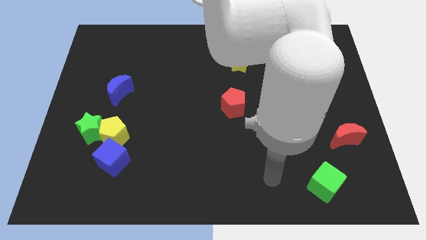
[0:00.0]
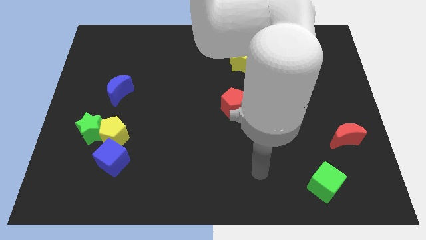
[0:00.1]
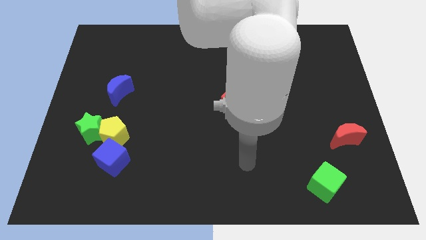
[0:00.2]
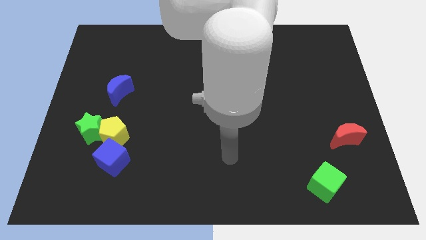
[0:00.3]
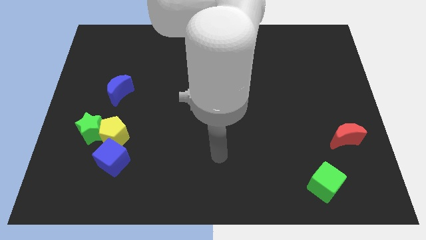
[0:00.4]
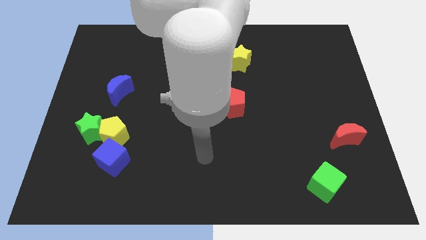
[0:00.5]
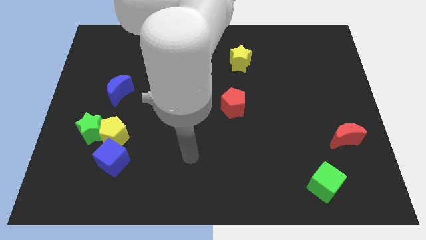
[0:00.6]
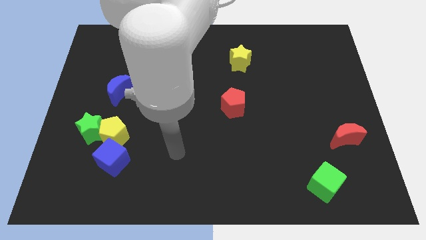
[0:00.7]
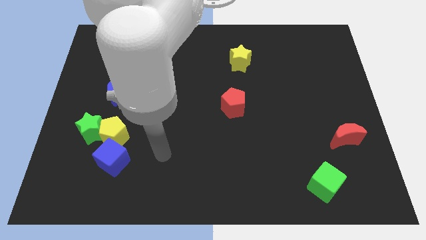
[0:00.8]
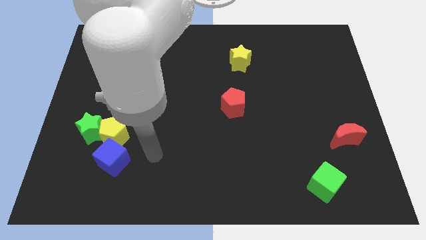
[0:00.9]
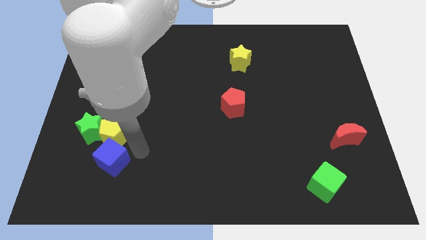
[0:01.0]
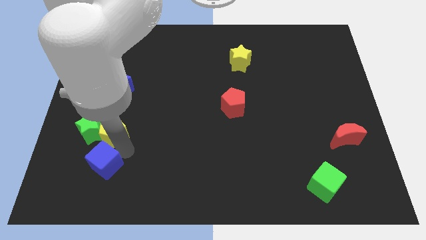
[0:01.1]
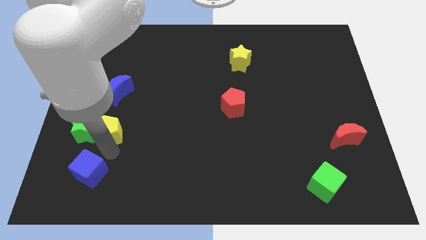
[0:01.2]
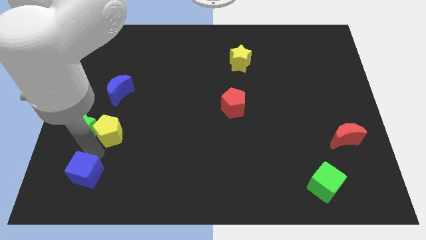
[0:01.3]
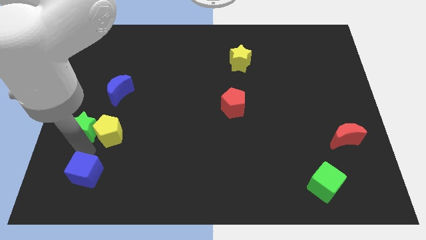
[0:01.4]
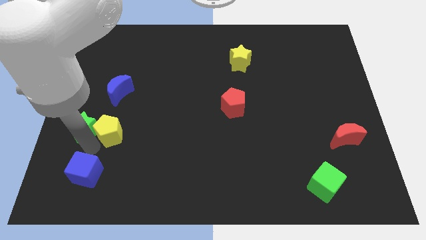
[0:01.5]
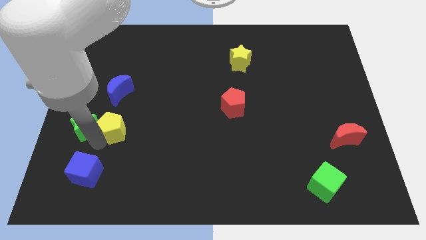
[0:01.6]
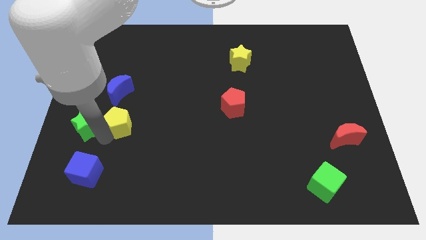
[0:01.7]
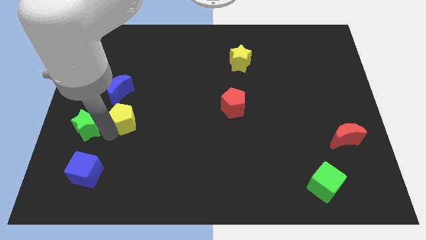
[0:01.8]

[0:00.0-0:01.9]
separate the yellow pentagon from the green star and blue cube

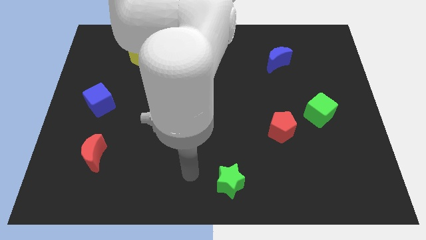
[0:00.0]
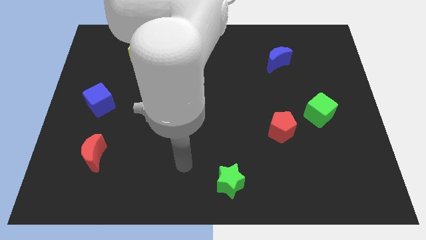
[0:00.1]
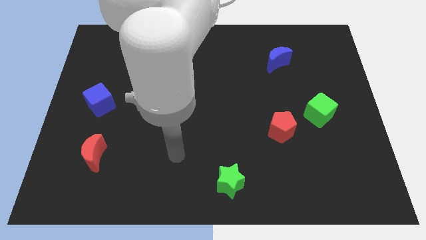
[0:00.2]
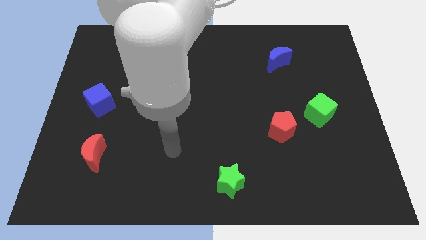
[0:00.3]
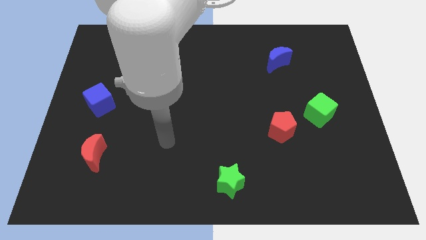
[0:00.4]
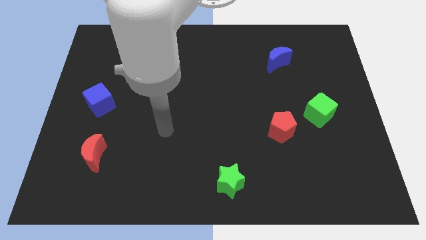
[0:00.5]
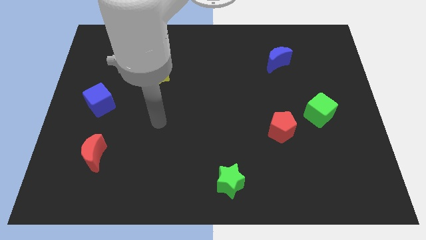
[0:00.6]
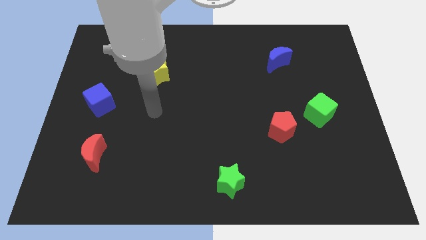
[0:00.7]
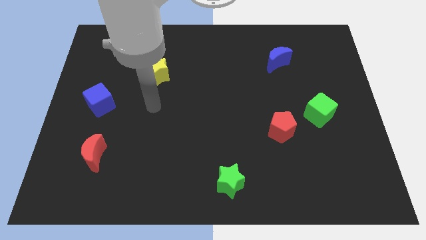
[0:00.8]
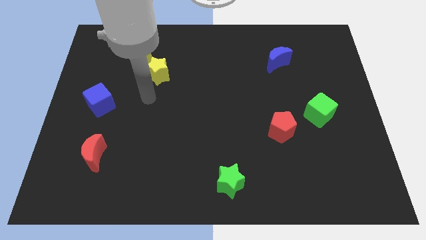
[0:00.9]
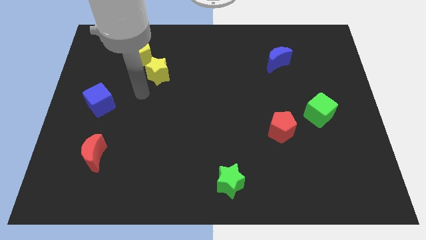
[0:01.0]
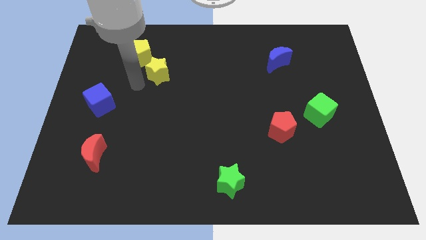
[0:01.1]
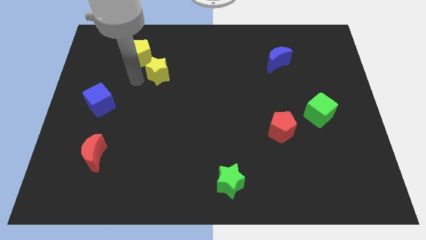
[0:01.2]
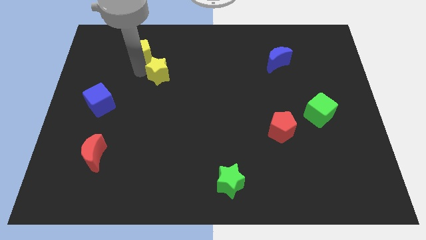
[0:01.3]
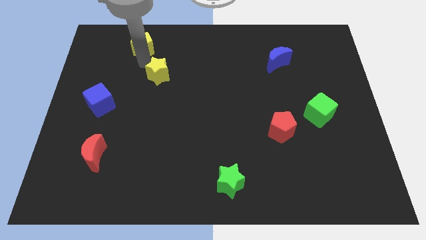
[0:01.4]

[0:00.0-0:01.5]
move the yellow star away from the yellow pentagon

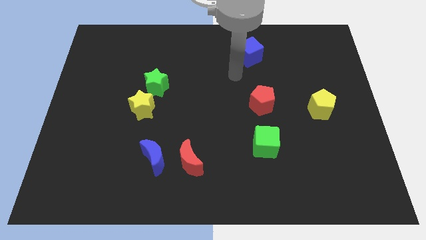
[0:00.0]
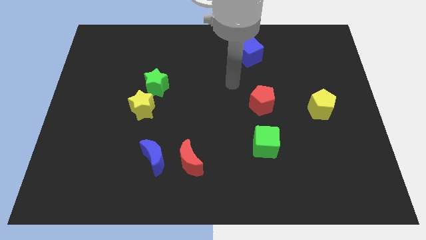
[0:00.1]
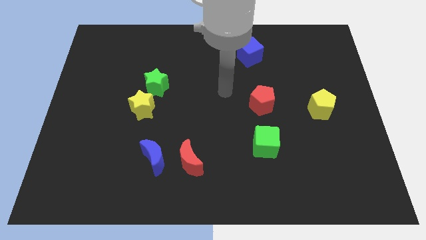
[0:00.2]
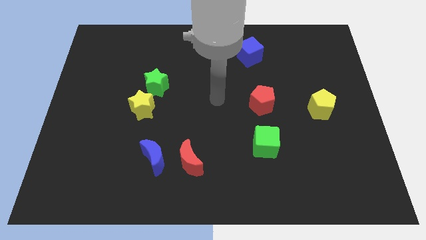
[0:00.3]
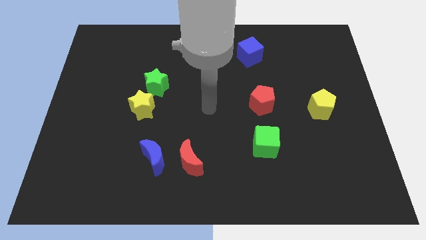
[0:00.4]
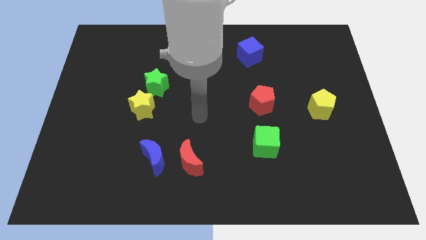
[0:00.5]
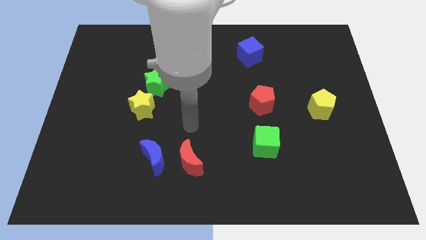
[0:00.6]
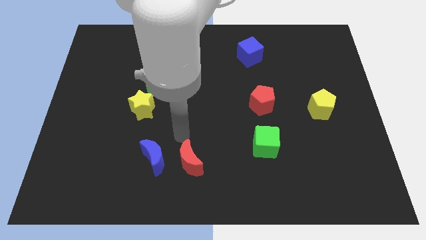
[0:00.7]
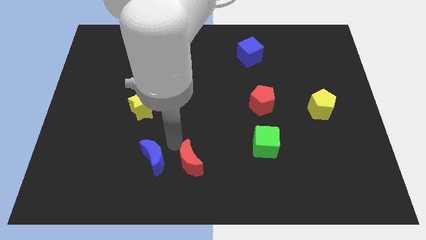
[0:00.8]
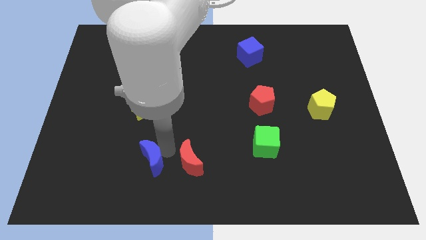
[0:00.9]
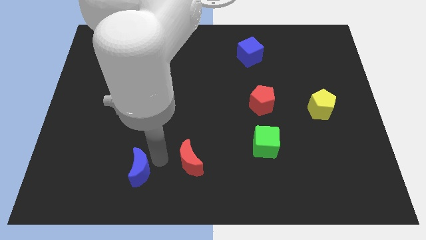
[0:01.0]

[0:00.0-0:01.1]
pull the red moon apart from the blue moon

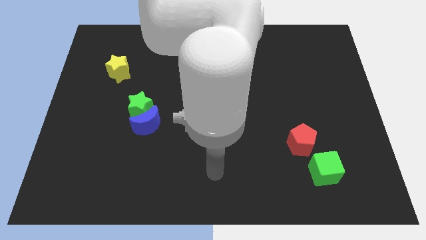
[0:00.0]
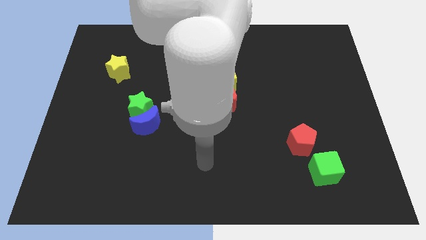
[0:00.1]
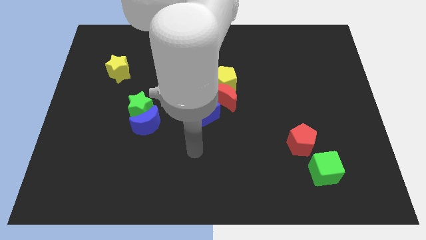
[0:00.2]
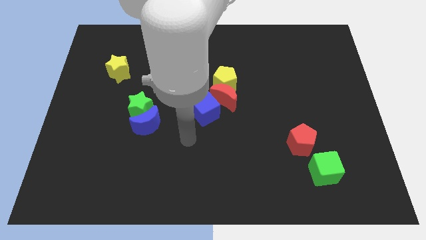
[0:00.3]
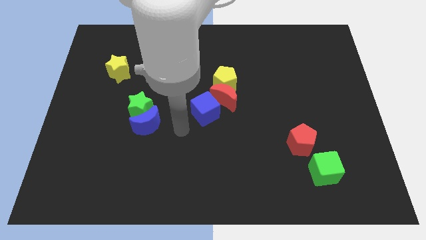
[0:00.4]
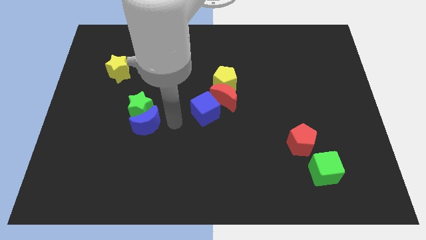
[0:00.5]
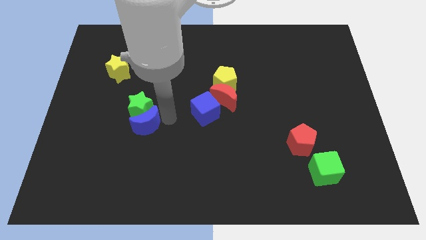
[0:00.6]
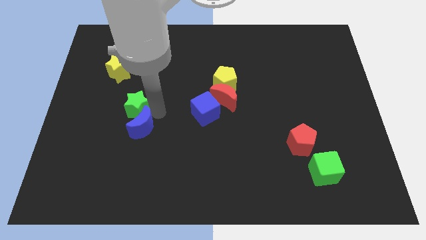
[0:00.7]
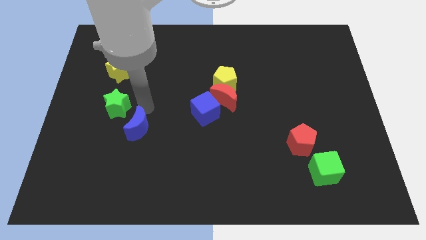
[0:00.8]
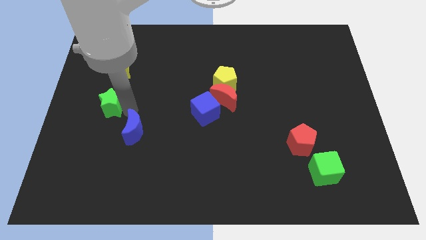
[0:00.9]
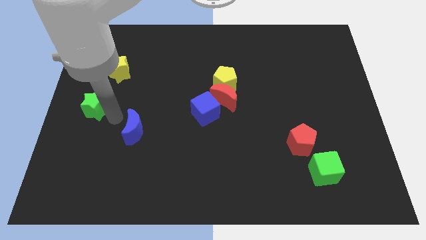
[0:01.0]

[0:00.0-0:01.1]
move the blue moon away from the green star

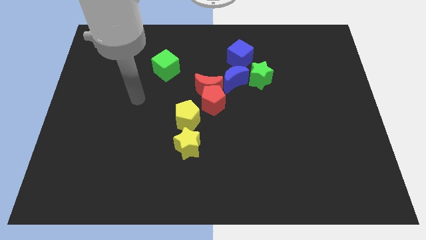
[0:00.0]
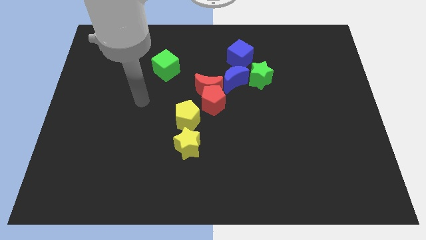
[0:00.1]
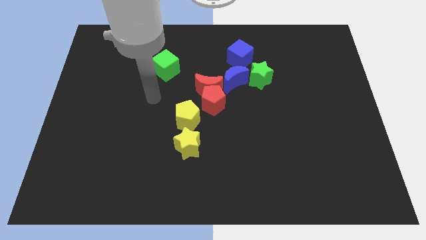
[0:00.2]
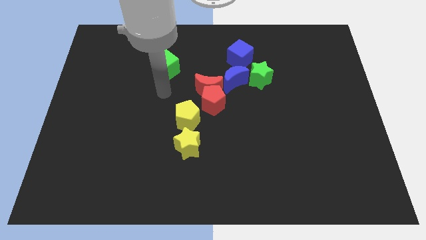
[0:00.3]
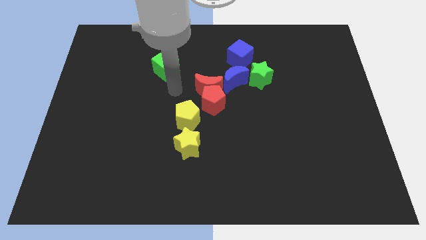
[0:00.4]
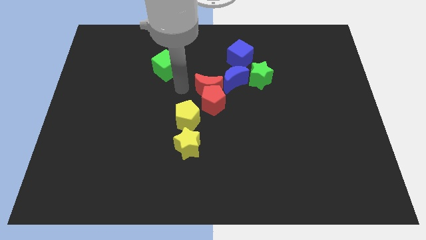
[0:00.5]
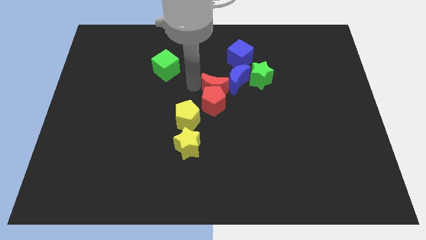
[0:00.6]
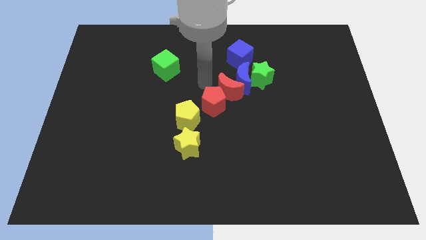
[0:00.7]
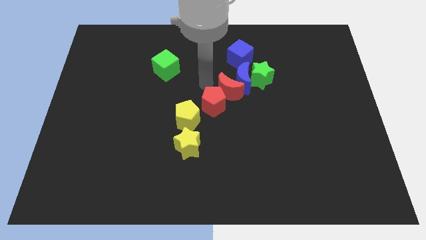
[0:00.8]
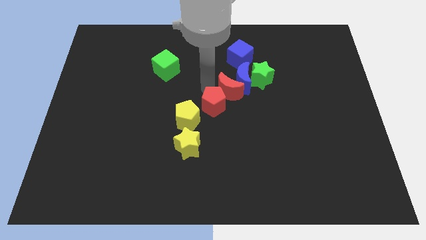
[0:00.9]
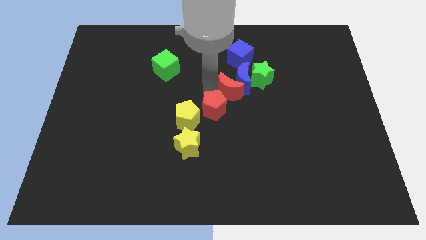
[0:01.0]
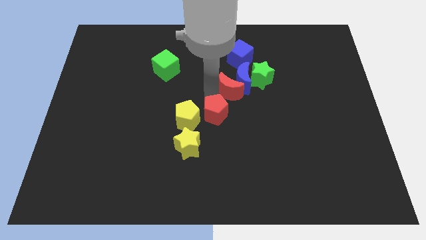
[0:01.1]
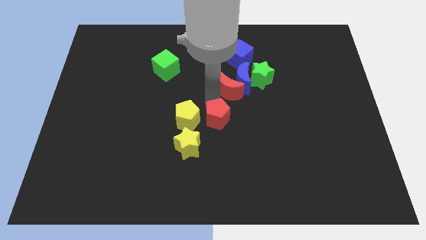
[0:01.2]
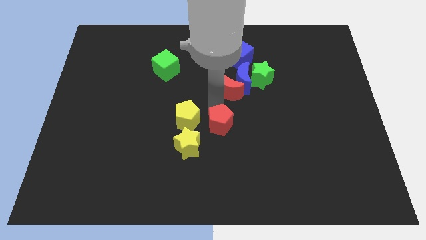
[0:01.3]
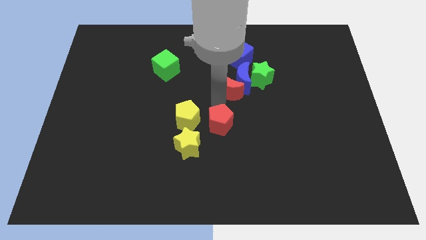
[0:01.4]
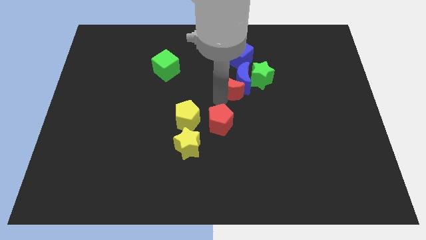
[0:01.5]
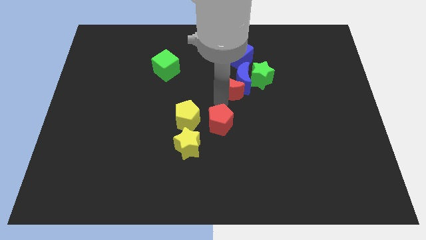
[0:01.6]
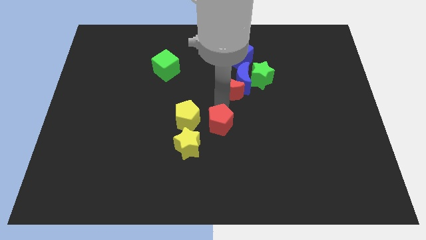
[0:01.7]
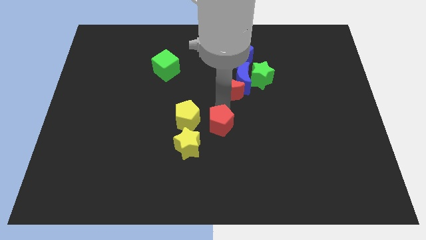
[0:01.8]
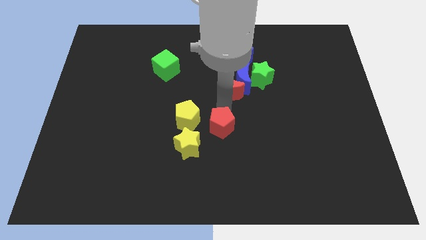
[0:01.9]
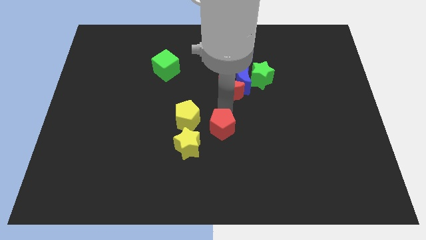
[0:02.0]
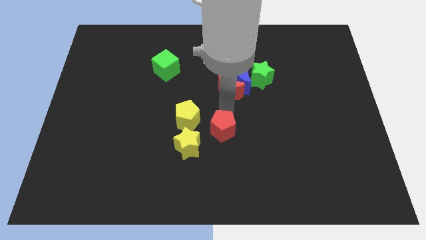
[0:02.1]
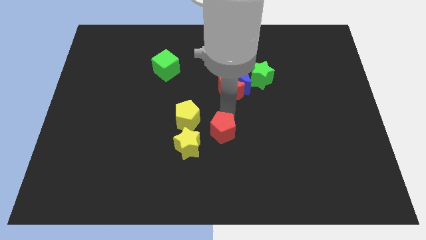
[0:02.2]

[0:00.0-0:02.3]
pull the red pentagon apart from the group of blocks

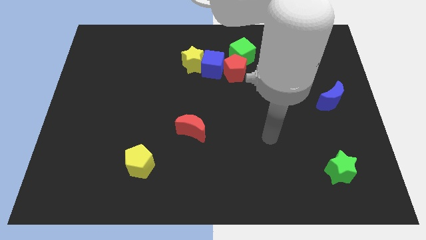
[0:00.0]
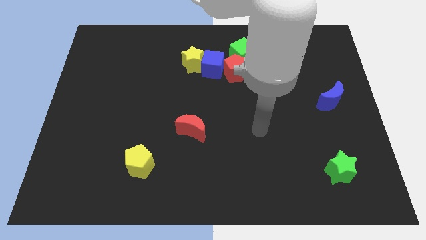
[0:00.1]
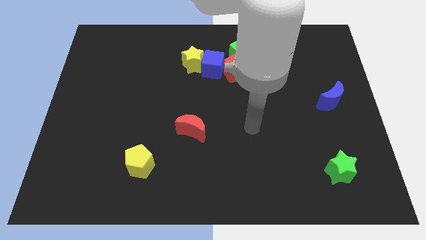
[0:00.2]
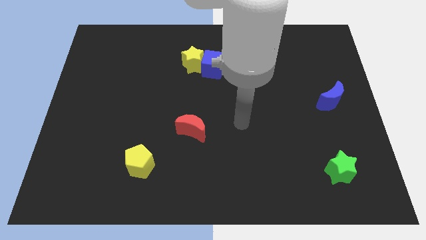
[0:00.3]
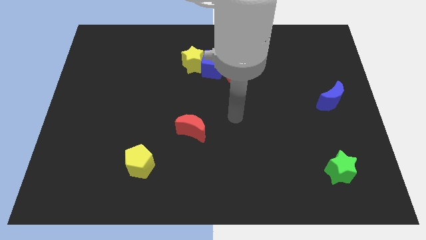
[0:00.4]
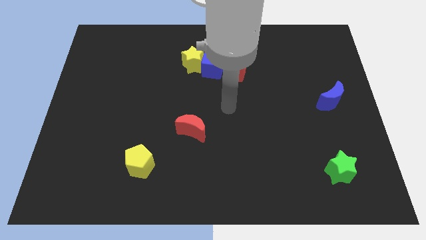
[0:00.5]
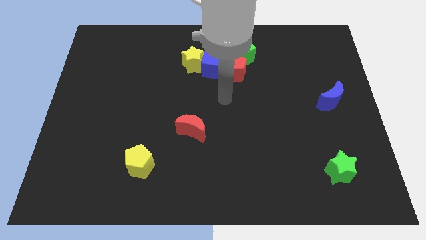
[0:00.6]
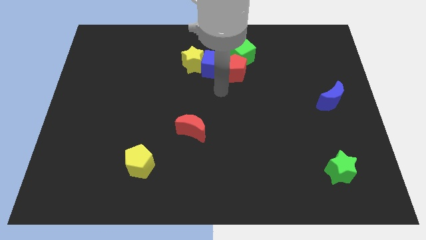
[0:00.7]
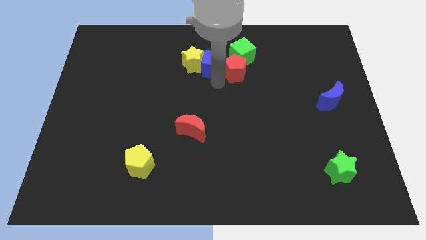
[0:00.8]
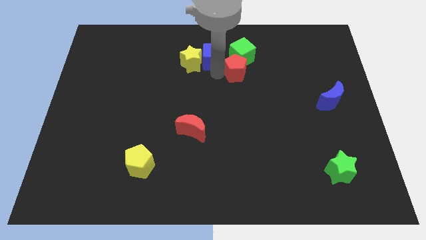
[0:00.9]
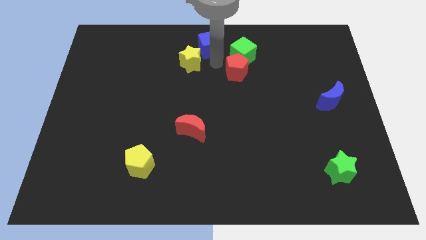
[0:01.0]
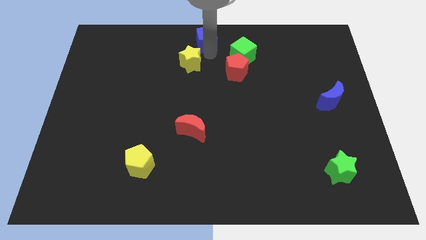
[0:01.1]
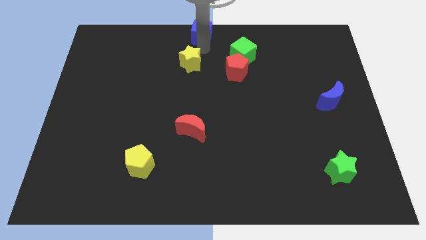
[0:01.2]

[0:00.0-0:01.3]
pull the yellow star apart from the blue cube
